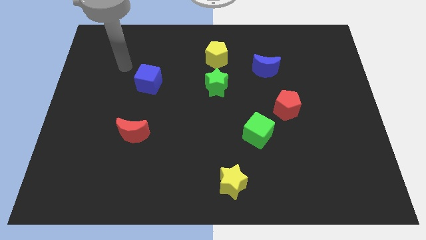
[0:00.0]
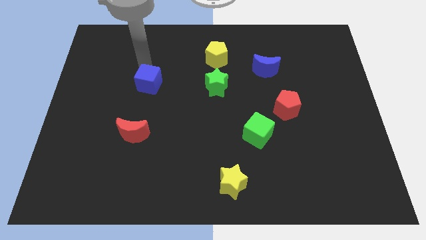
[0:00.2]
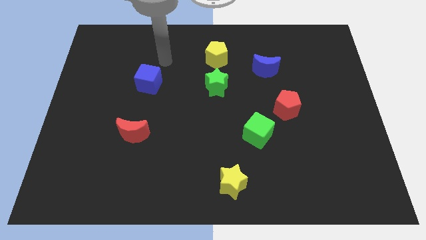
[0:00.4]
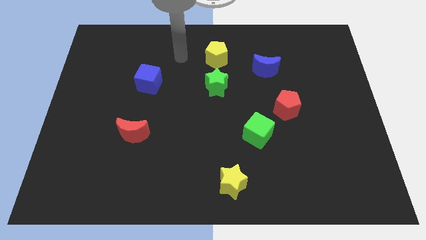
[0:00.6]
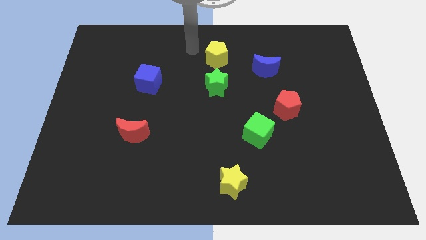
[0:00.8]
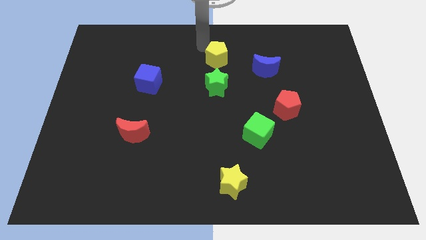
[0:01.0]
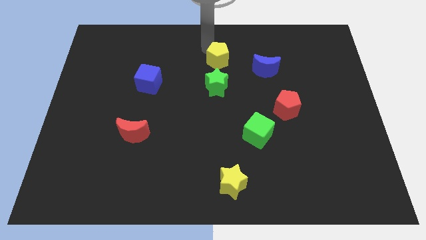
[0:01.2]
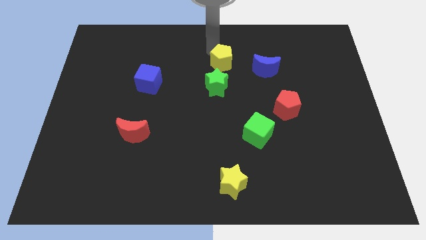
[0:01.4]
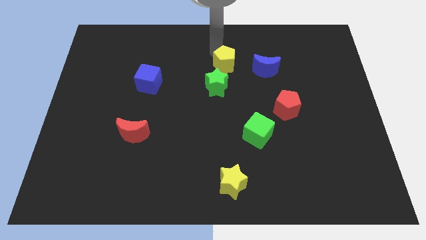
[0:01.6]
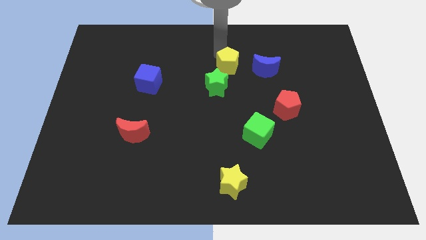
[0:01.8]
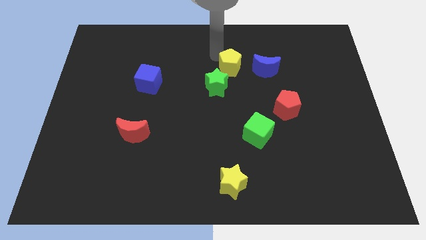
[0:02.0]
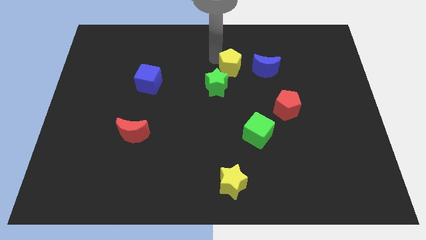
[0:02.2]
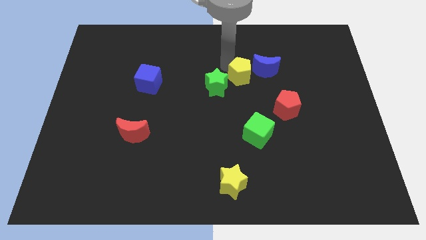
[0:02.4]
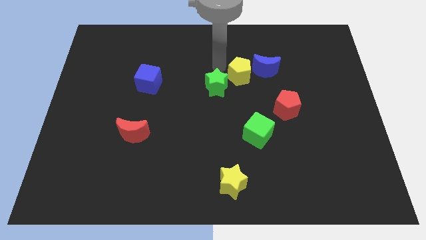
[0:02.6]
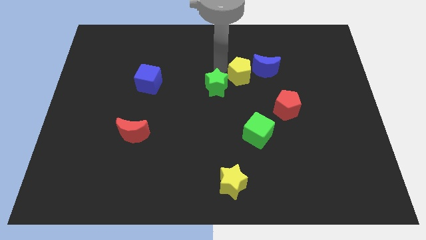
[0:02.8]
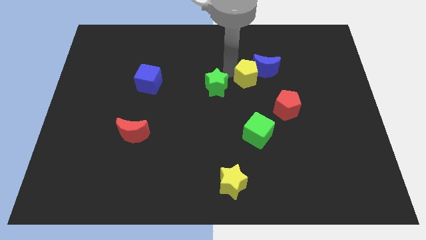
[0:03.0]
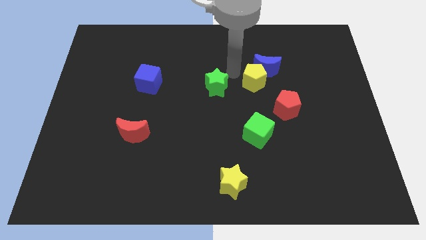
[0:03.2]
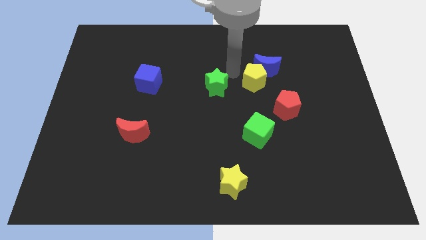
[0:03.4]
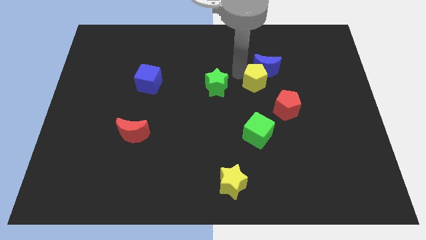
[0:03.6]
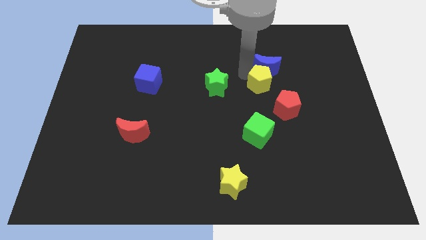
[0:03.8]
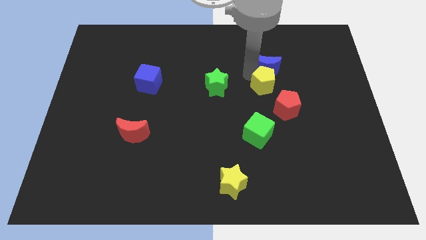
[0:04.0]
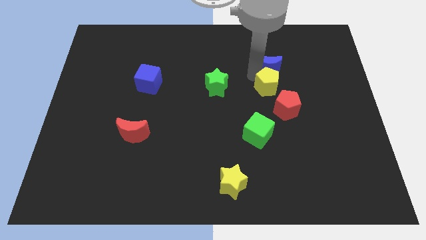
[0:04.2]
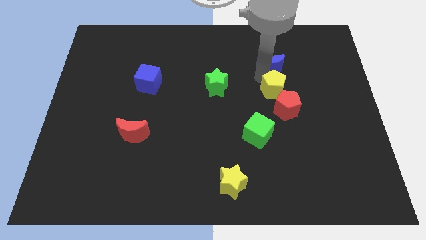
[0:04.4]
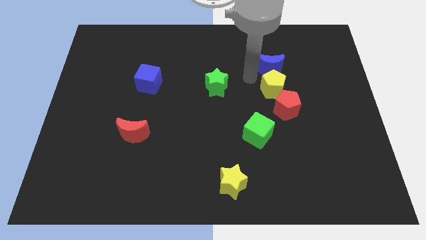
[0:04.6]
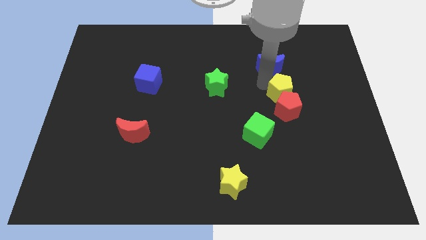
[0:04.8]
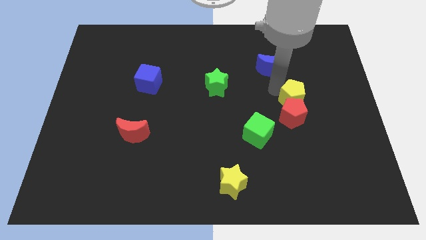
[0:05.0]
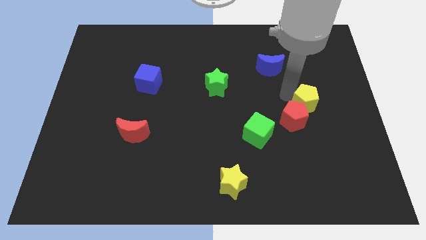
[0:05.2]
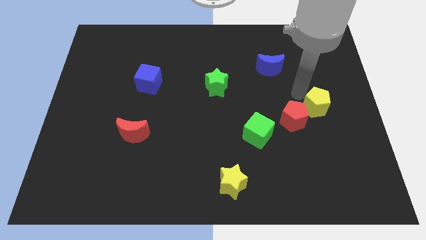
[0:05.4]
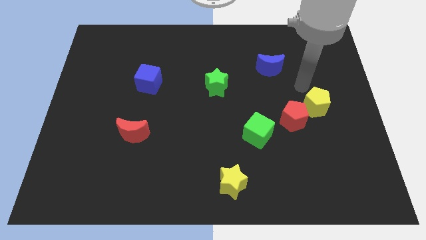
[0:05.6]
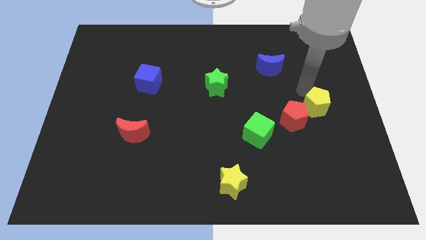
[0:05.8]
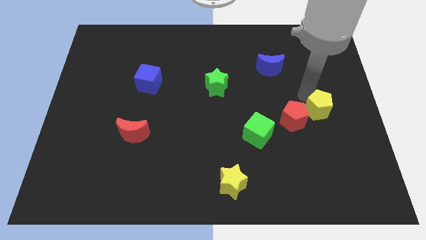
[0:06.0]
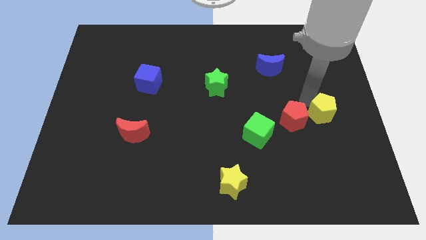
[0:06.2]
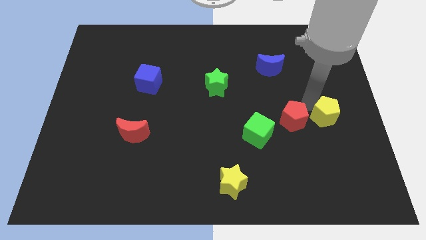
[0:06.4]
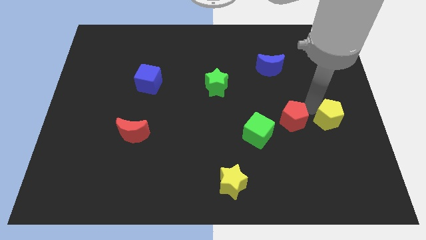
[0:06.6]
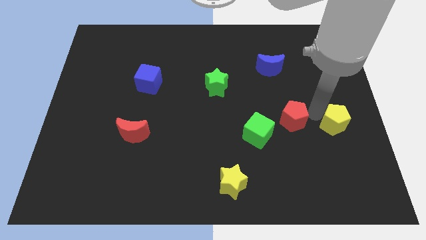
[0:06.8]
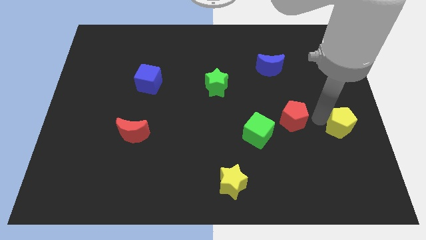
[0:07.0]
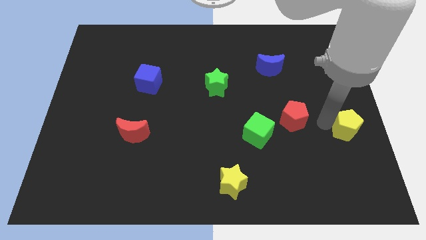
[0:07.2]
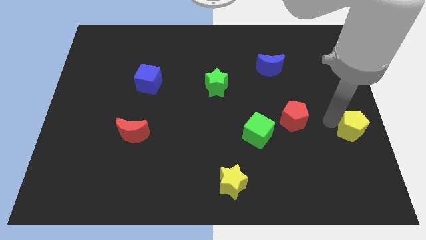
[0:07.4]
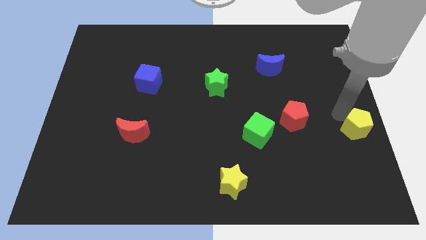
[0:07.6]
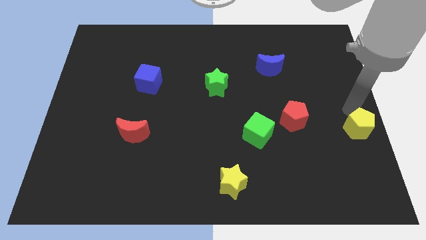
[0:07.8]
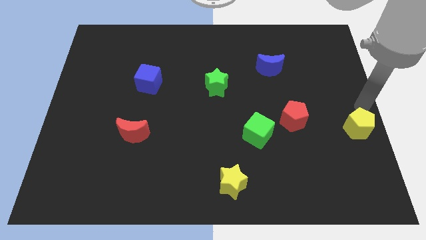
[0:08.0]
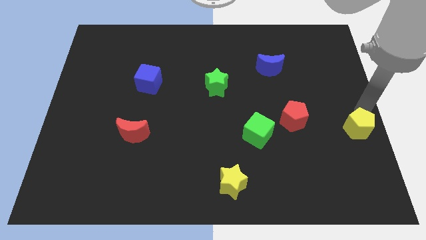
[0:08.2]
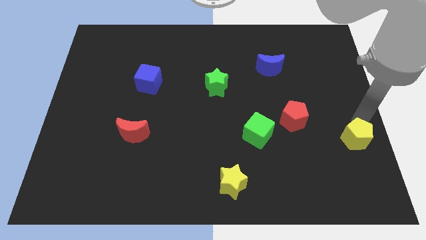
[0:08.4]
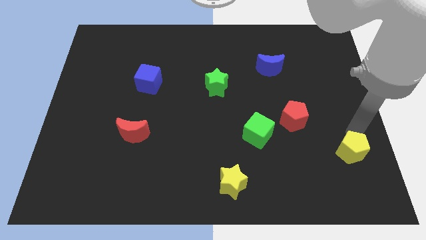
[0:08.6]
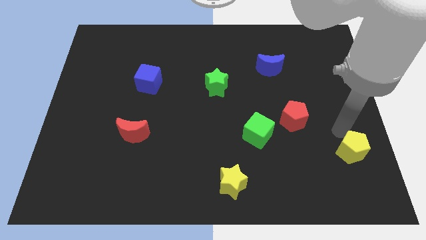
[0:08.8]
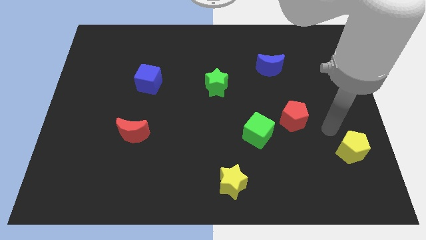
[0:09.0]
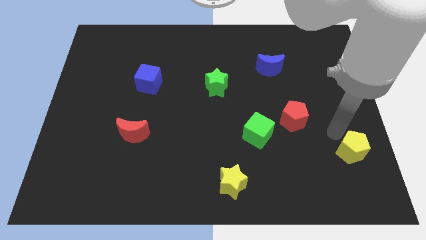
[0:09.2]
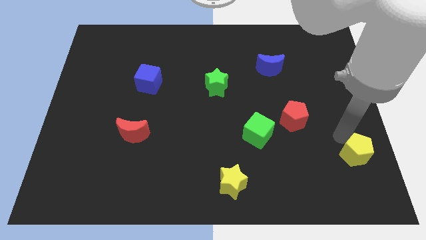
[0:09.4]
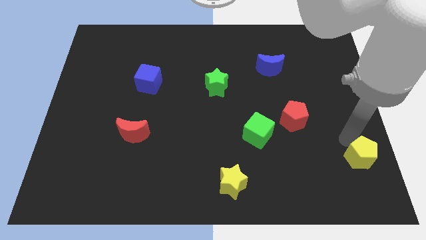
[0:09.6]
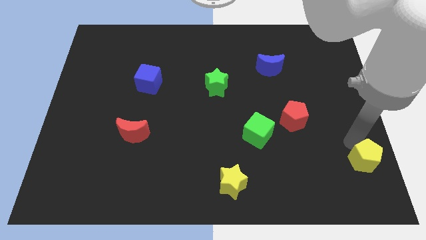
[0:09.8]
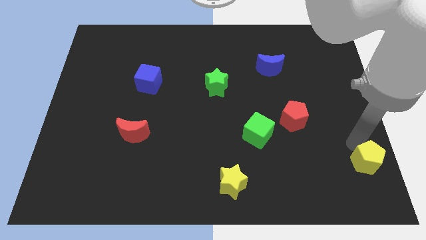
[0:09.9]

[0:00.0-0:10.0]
slide the yellow pentagon to the lower right corner

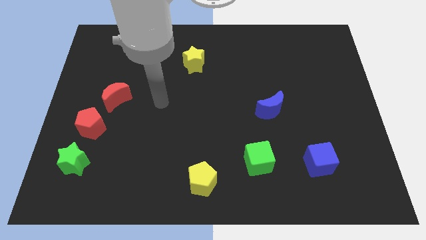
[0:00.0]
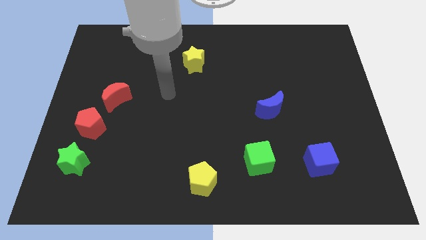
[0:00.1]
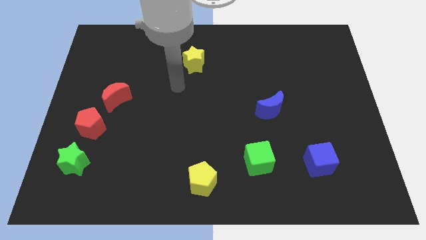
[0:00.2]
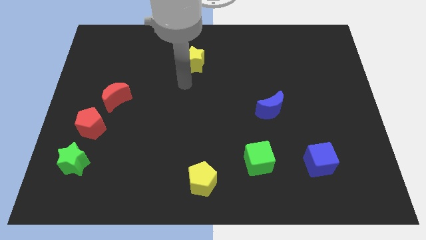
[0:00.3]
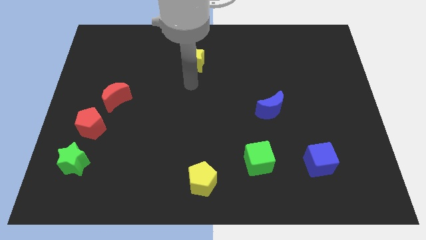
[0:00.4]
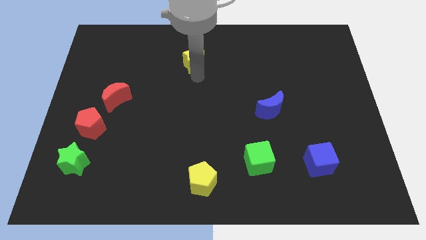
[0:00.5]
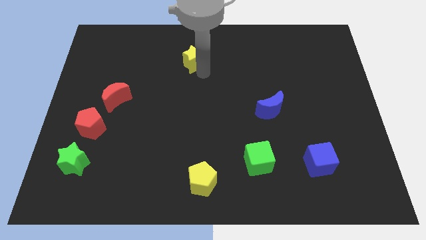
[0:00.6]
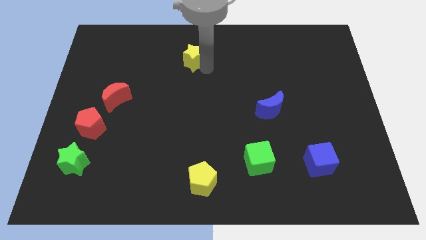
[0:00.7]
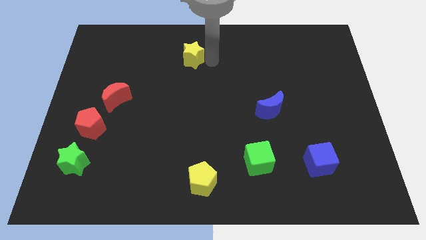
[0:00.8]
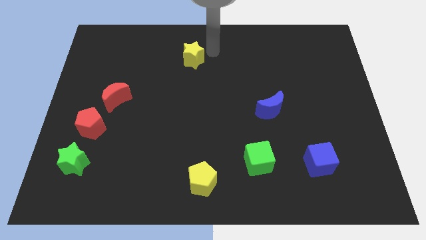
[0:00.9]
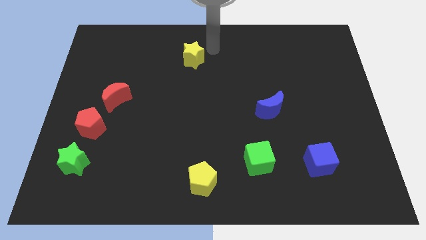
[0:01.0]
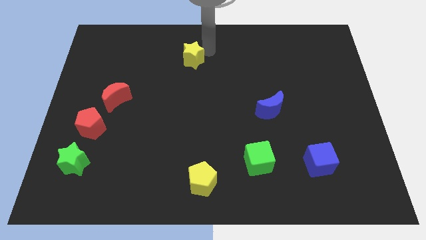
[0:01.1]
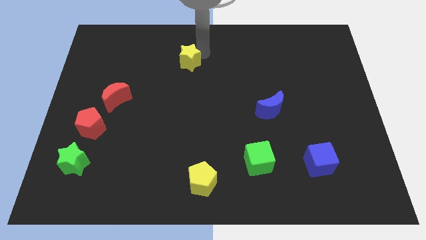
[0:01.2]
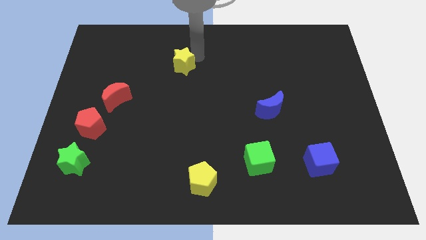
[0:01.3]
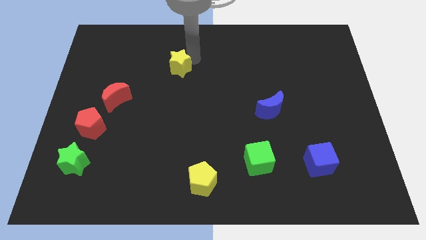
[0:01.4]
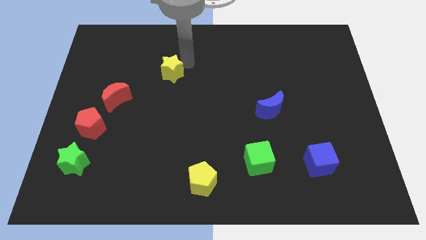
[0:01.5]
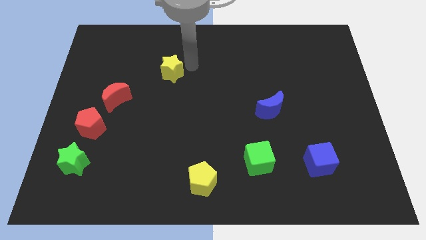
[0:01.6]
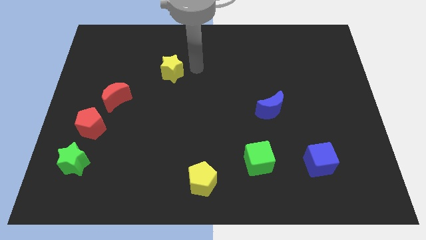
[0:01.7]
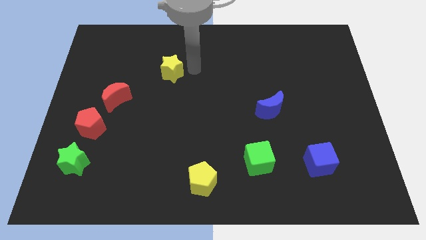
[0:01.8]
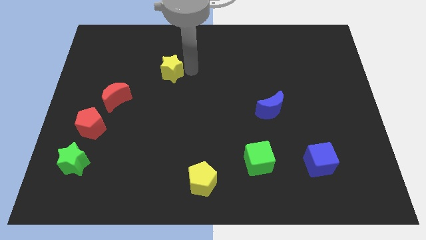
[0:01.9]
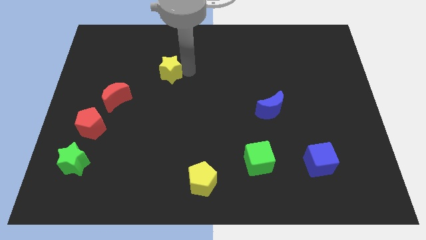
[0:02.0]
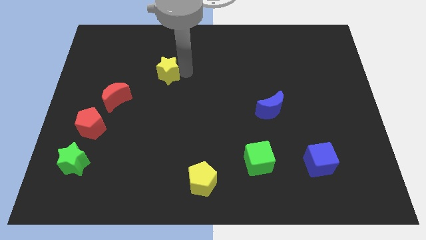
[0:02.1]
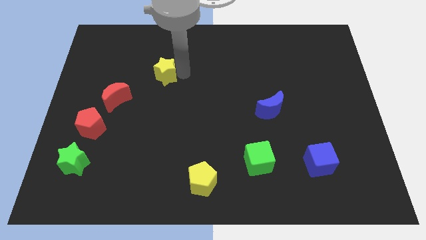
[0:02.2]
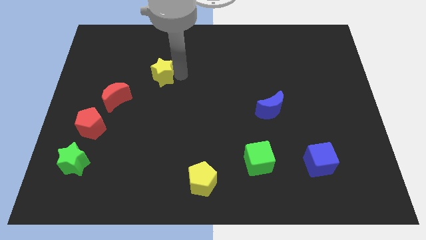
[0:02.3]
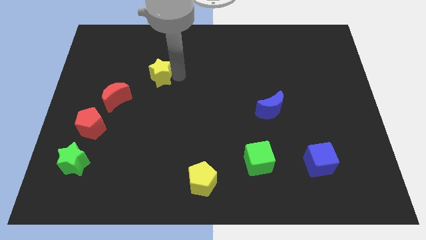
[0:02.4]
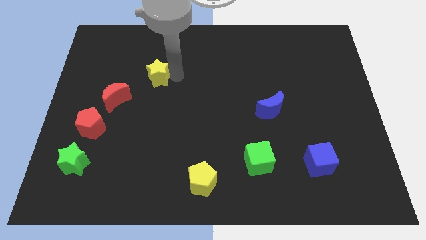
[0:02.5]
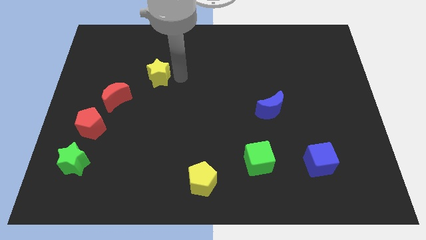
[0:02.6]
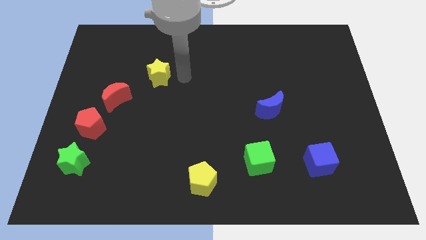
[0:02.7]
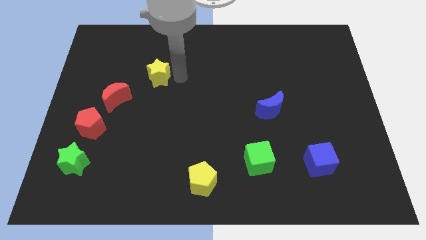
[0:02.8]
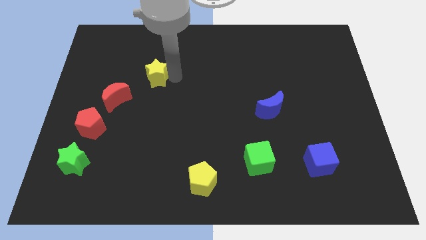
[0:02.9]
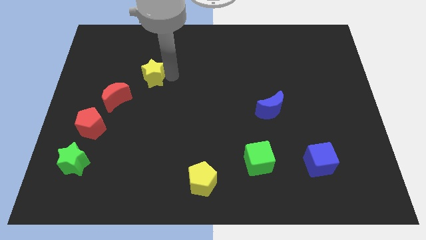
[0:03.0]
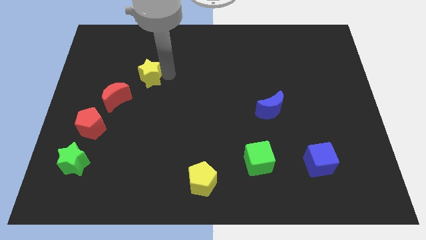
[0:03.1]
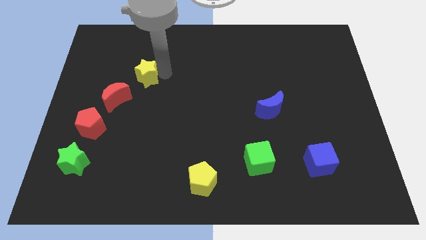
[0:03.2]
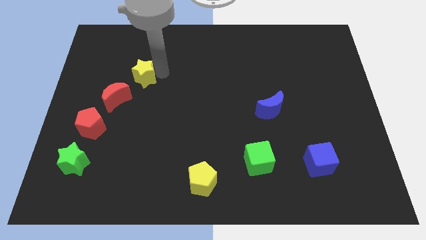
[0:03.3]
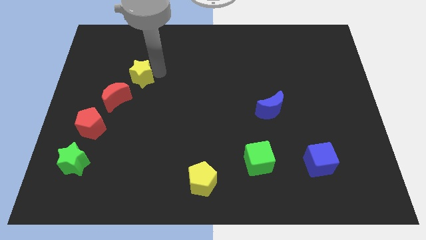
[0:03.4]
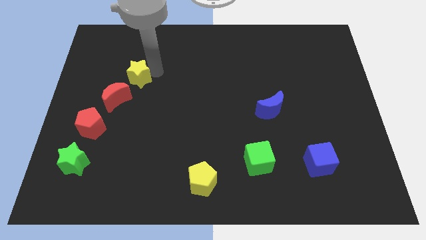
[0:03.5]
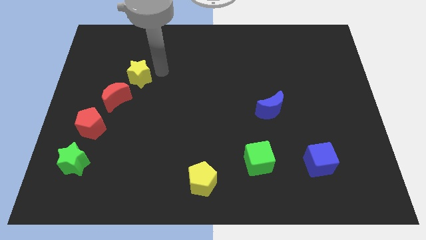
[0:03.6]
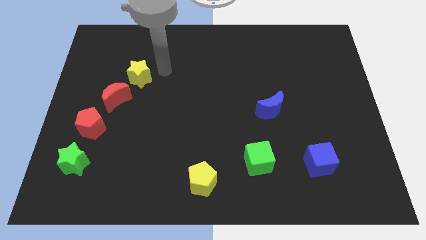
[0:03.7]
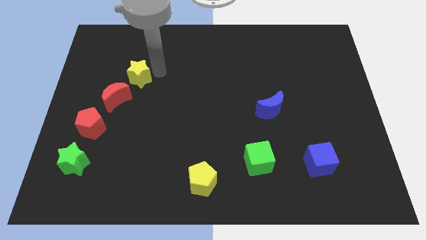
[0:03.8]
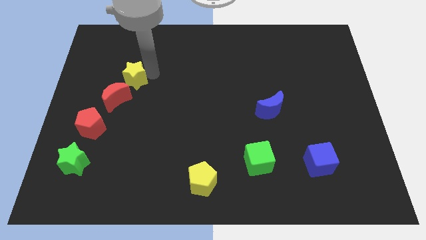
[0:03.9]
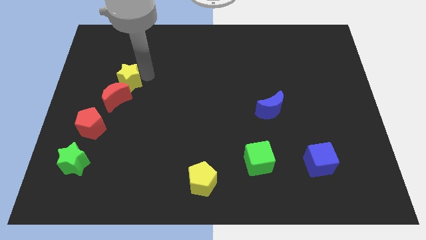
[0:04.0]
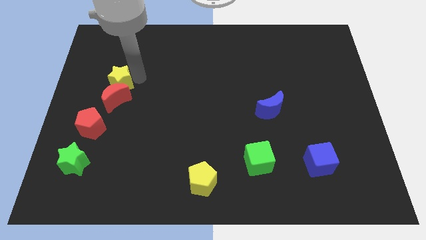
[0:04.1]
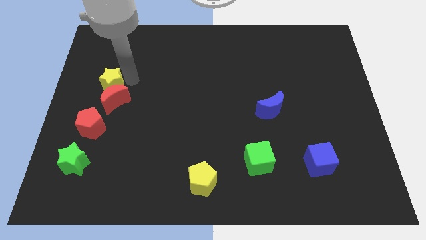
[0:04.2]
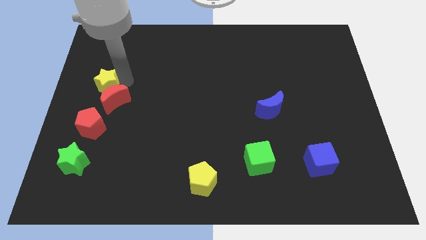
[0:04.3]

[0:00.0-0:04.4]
push the yellow star to the center left
